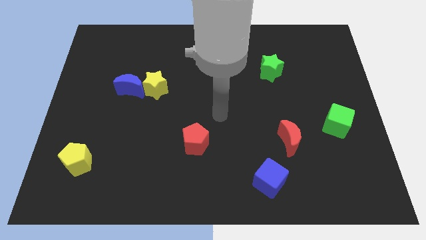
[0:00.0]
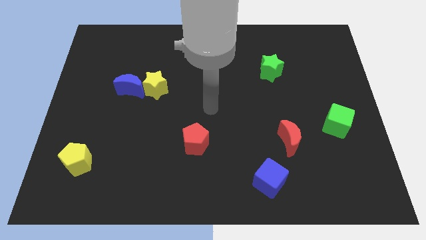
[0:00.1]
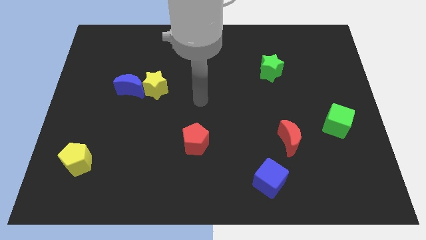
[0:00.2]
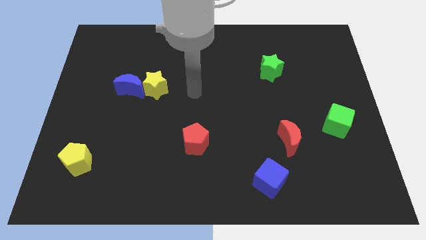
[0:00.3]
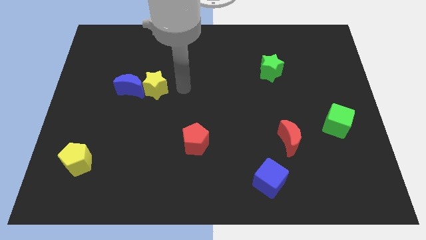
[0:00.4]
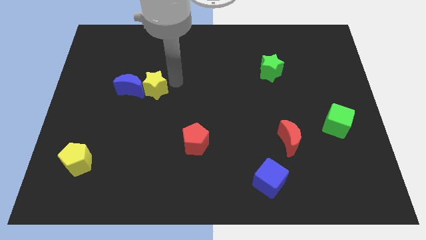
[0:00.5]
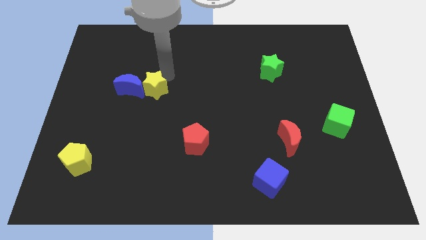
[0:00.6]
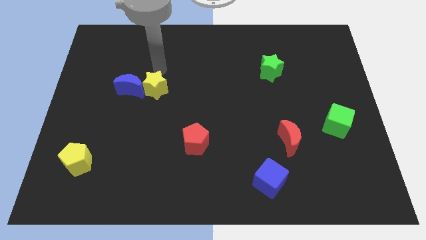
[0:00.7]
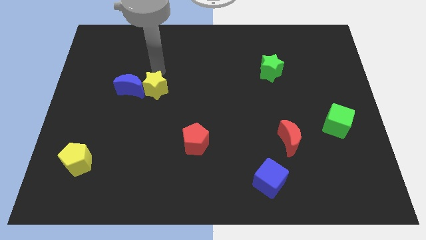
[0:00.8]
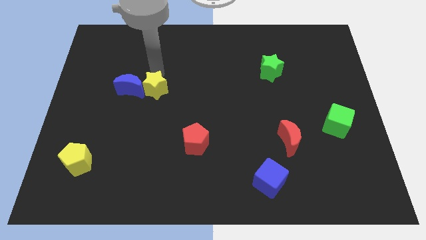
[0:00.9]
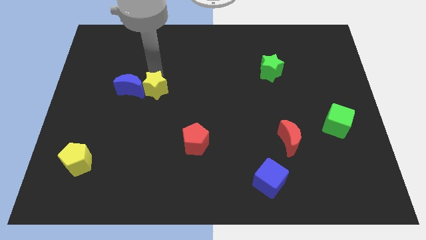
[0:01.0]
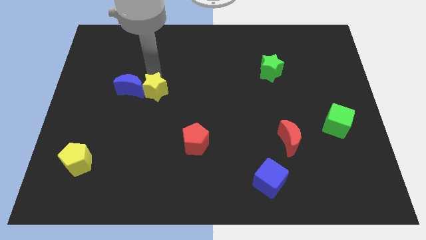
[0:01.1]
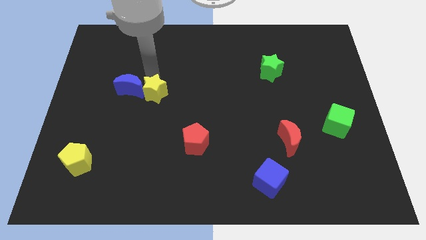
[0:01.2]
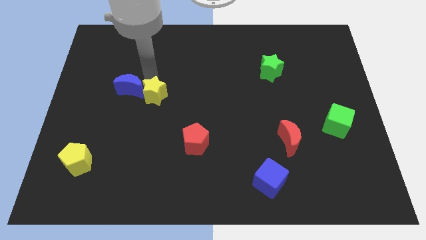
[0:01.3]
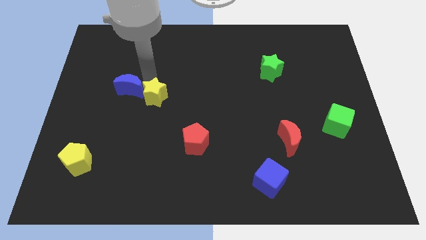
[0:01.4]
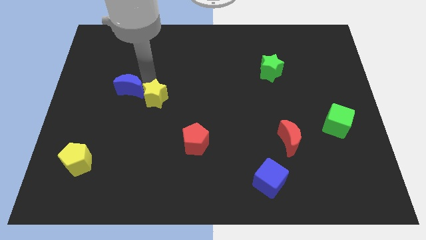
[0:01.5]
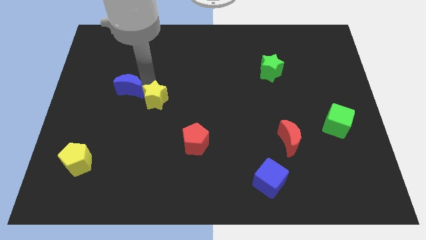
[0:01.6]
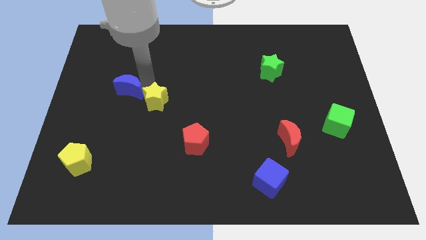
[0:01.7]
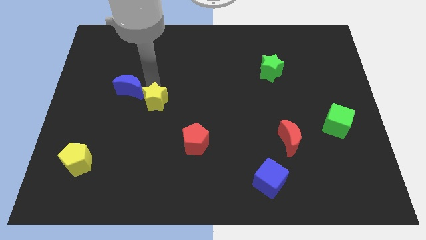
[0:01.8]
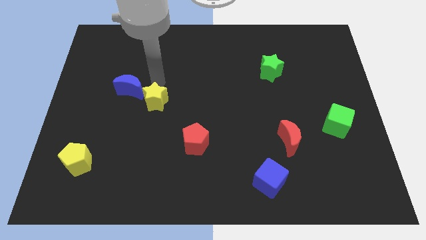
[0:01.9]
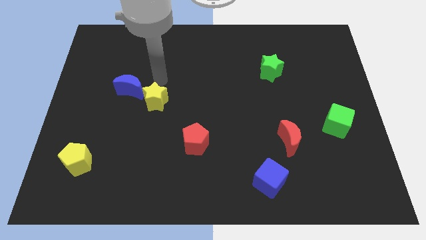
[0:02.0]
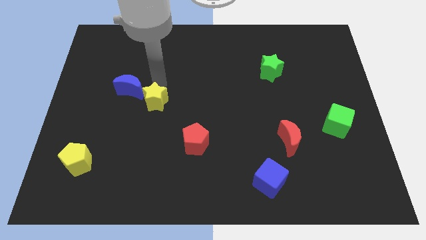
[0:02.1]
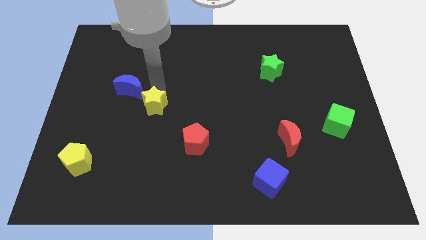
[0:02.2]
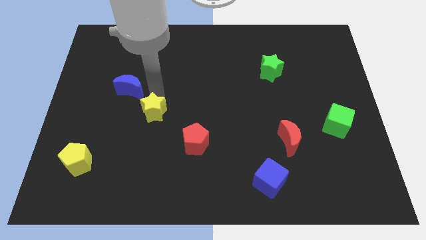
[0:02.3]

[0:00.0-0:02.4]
slide the yellow star down somewhat

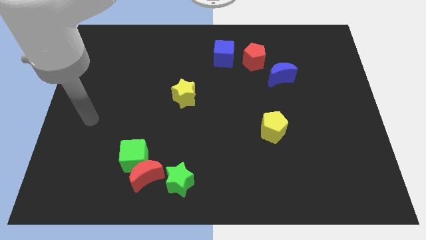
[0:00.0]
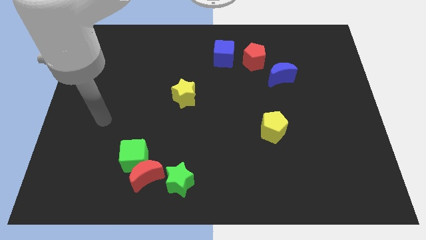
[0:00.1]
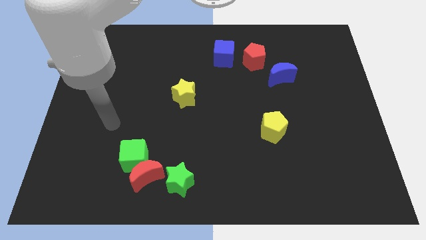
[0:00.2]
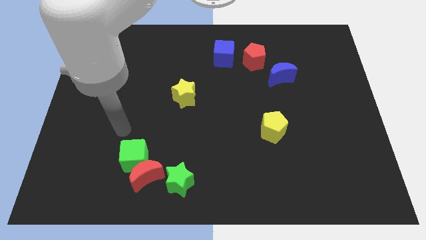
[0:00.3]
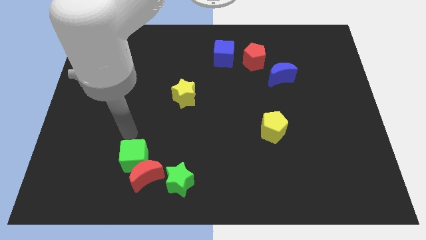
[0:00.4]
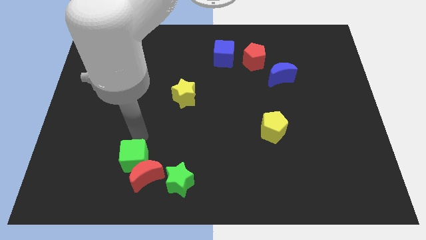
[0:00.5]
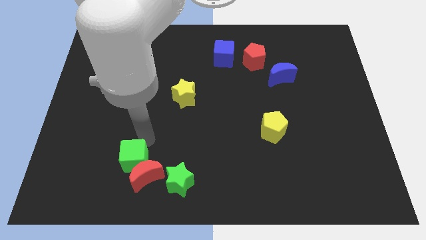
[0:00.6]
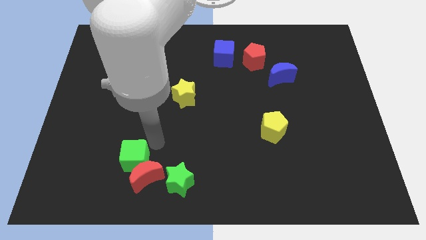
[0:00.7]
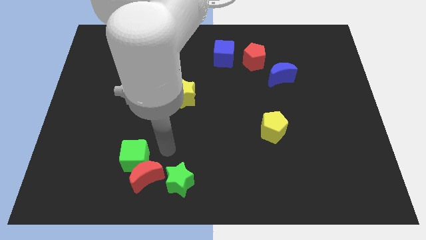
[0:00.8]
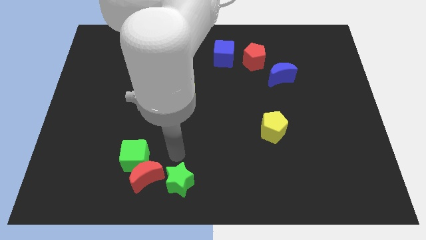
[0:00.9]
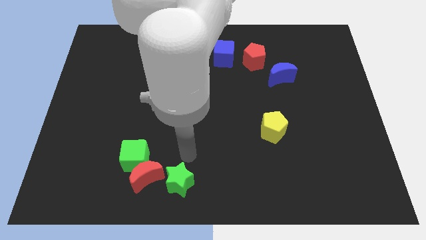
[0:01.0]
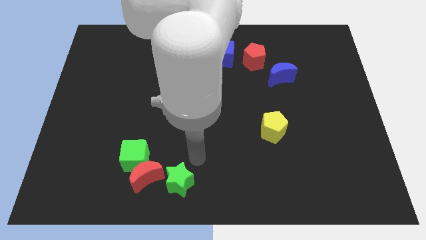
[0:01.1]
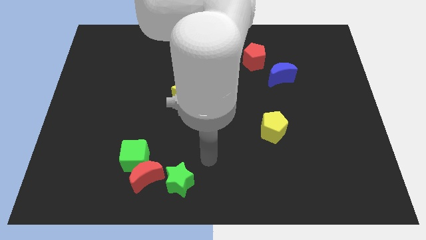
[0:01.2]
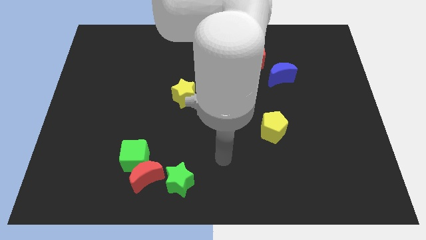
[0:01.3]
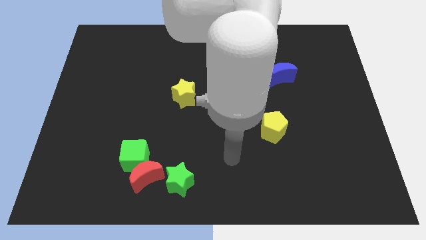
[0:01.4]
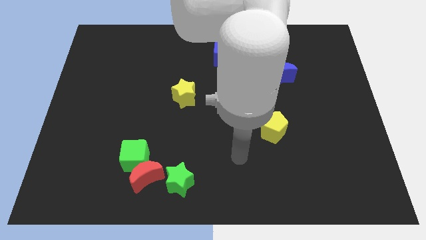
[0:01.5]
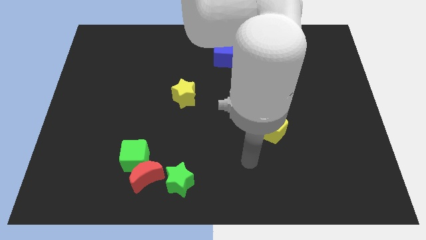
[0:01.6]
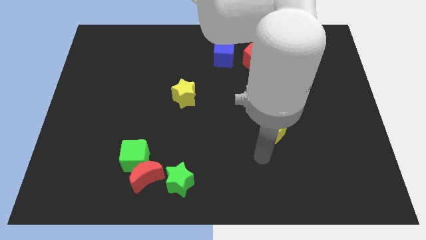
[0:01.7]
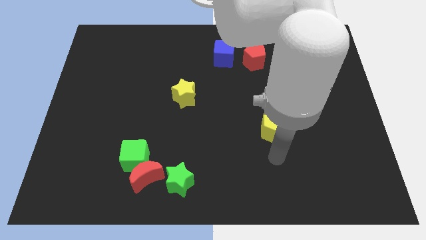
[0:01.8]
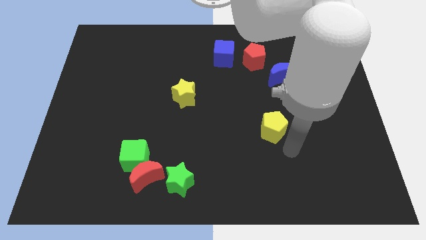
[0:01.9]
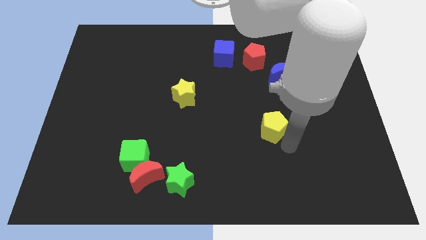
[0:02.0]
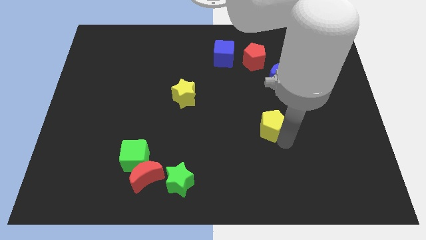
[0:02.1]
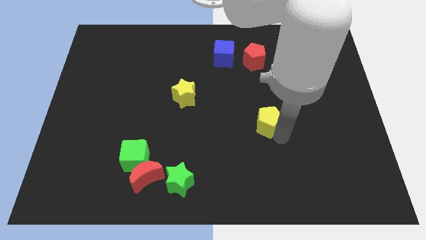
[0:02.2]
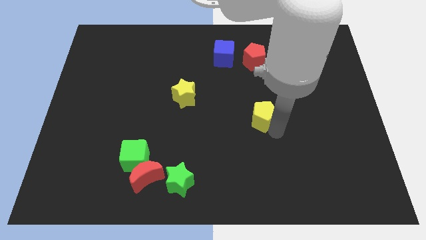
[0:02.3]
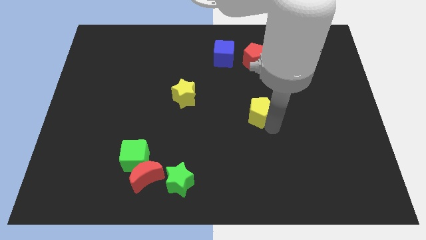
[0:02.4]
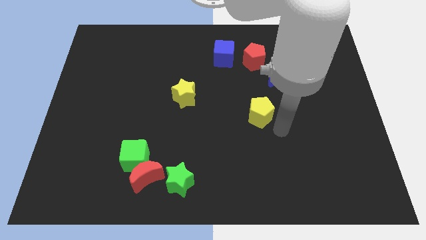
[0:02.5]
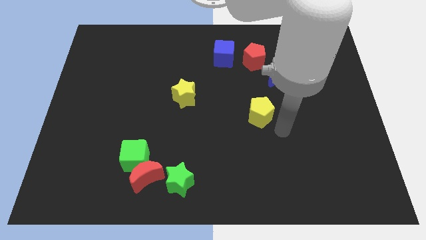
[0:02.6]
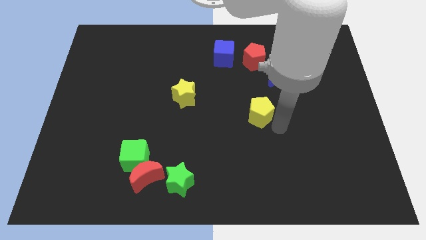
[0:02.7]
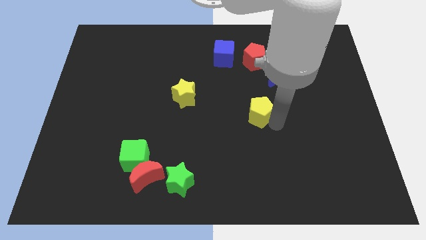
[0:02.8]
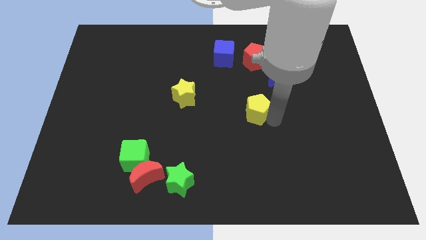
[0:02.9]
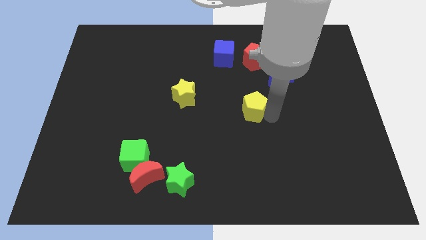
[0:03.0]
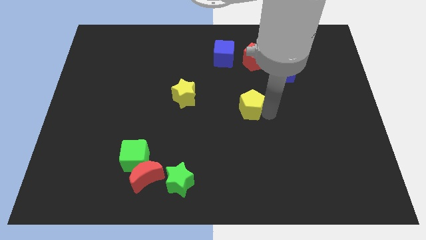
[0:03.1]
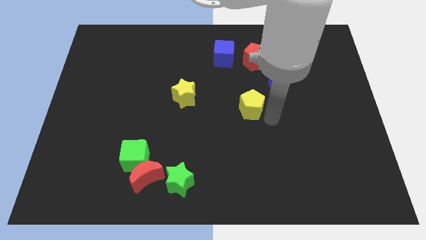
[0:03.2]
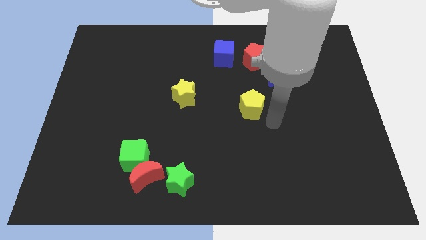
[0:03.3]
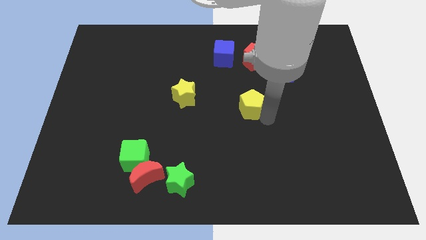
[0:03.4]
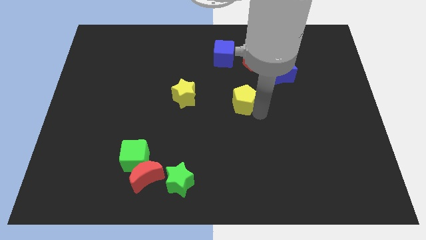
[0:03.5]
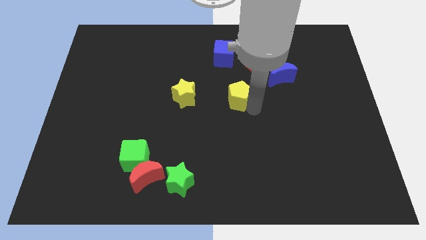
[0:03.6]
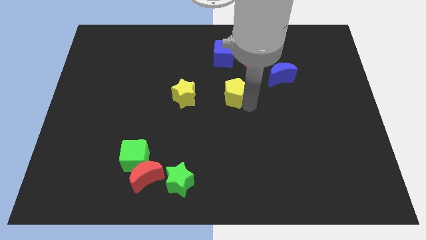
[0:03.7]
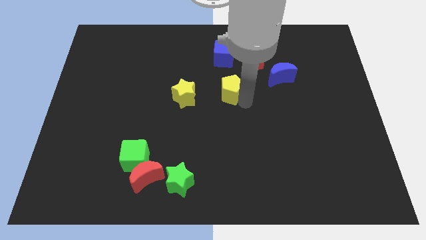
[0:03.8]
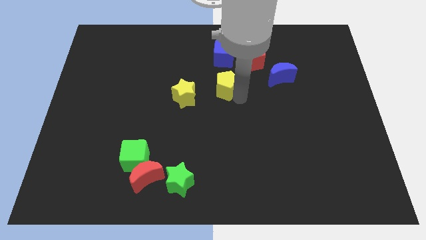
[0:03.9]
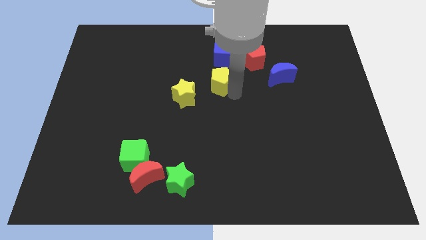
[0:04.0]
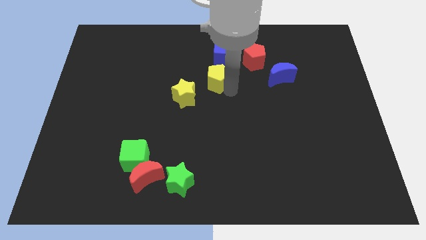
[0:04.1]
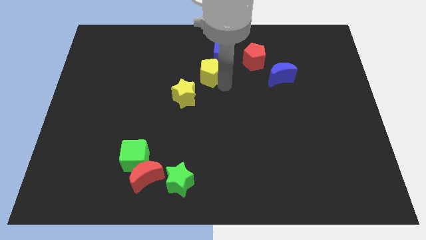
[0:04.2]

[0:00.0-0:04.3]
slide the yellow pentagon diagonally up and to the left

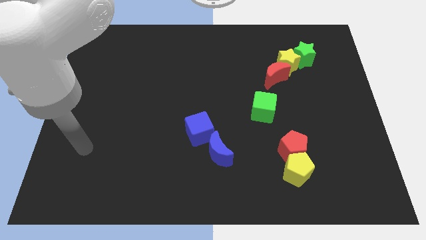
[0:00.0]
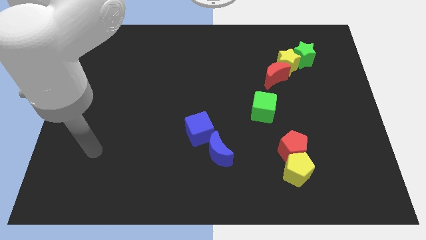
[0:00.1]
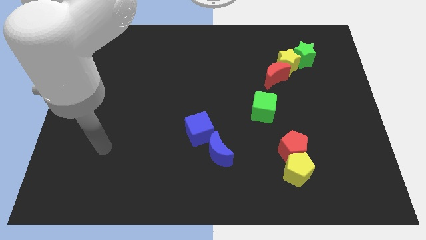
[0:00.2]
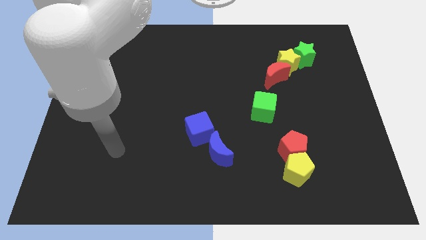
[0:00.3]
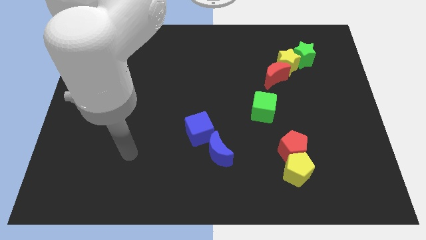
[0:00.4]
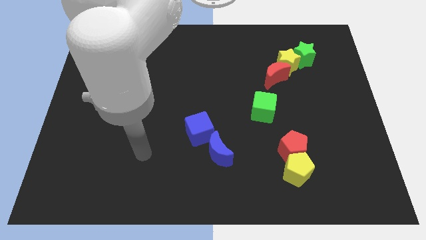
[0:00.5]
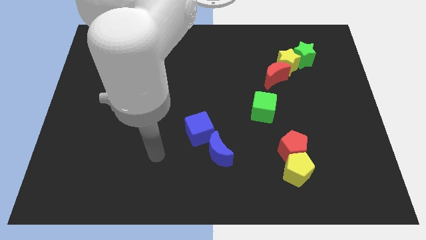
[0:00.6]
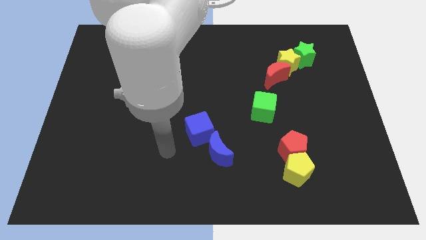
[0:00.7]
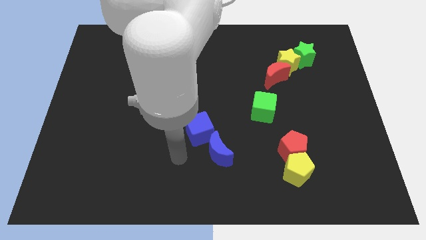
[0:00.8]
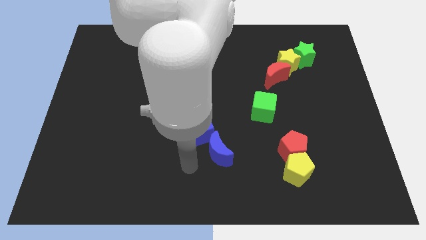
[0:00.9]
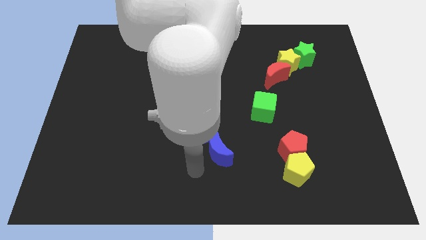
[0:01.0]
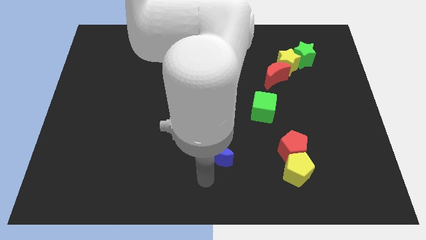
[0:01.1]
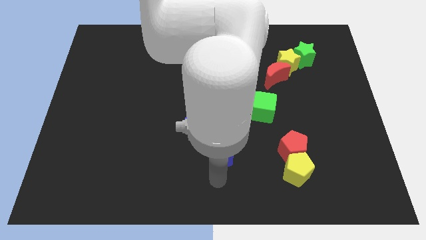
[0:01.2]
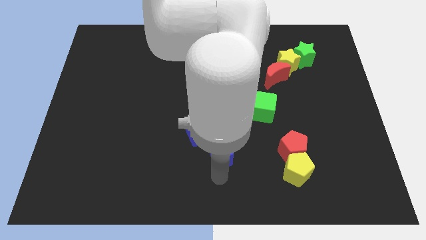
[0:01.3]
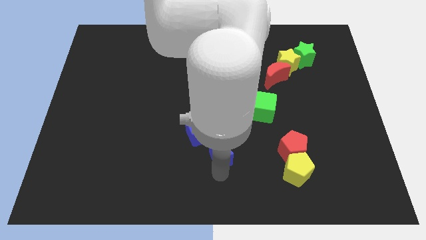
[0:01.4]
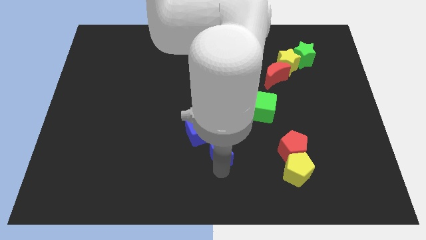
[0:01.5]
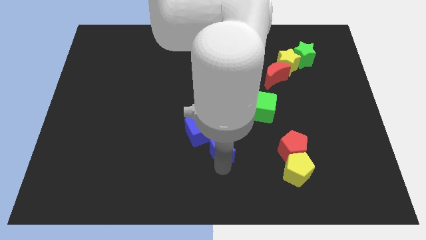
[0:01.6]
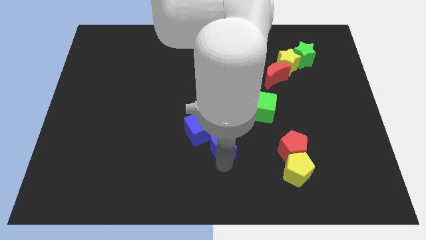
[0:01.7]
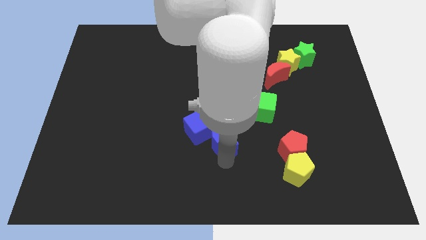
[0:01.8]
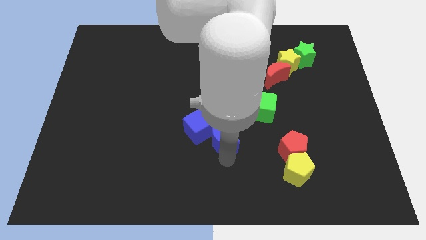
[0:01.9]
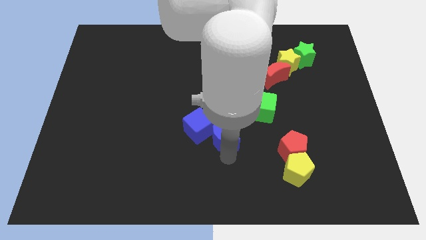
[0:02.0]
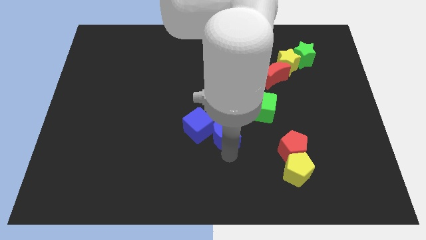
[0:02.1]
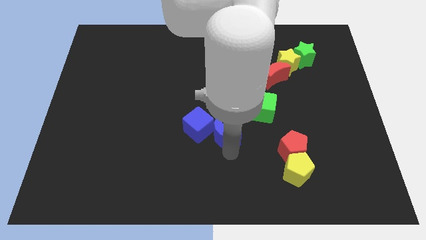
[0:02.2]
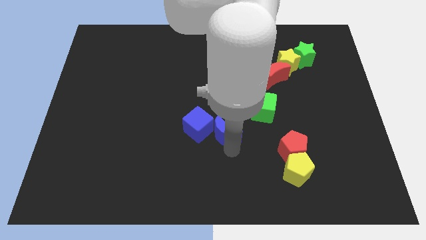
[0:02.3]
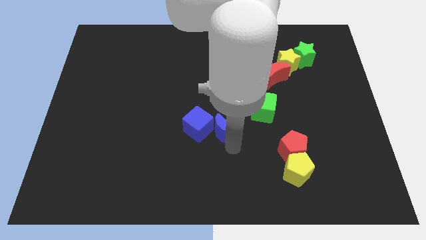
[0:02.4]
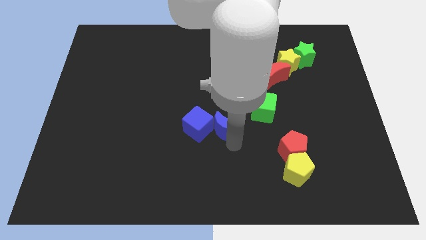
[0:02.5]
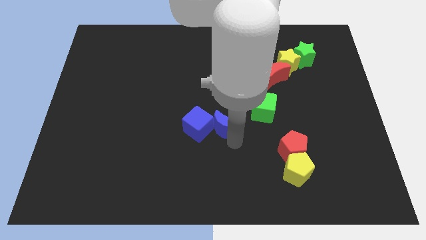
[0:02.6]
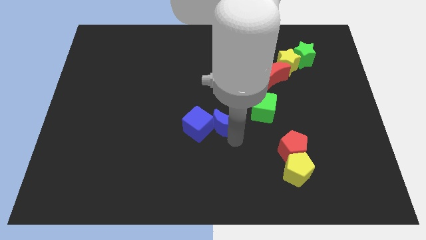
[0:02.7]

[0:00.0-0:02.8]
move the blue moon somewhat up
